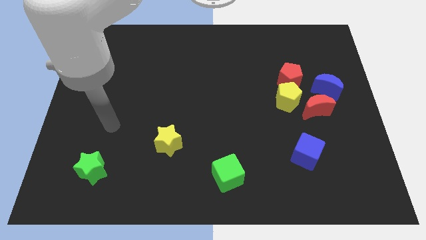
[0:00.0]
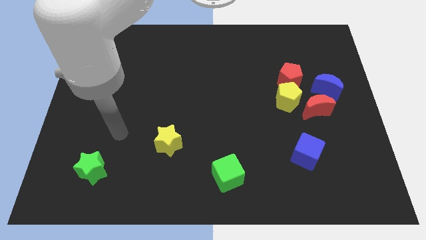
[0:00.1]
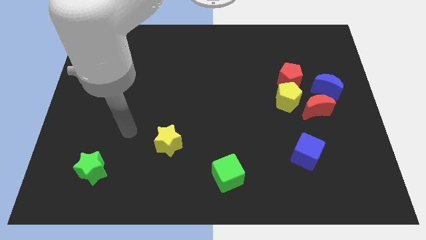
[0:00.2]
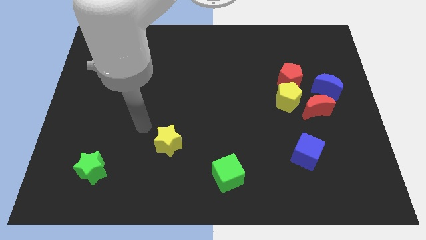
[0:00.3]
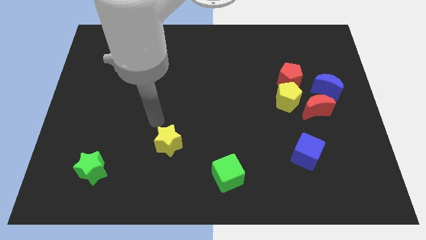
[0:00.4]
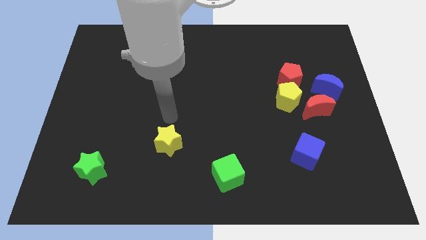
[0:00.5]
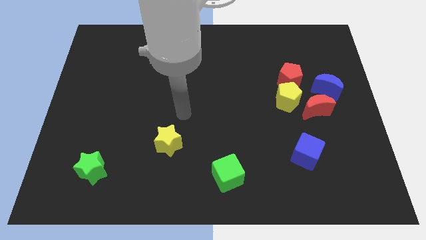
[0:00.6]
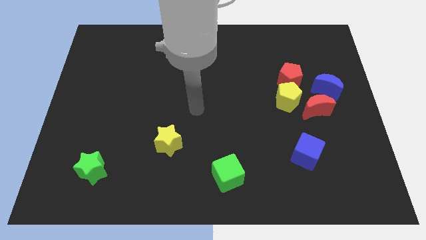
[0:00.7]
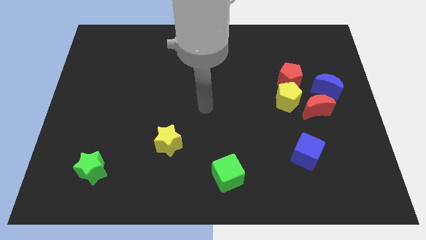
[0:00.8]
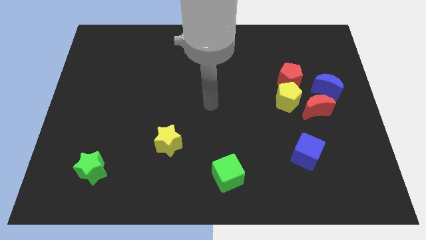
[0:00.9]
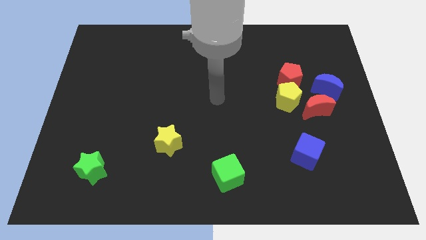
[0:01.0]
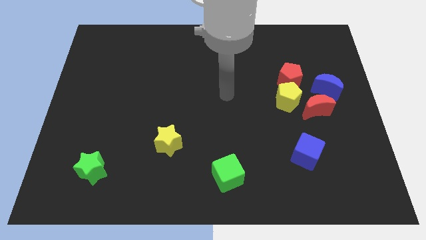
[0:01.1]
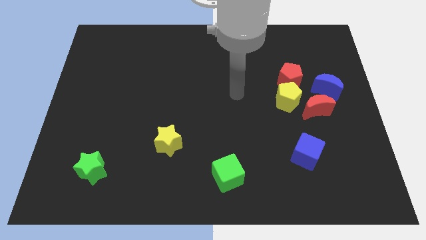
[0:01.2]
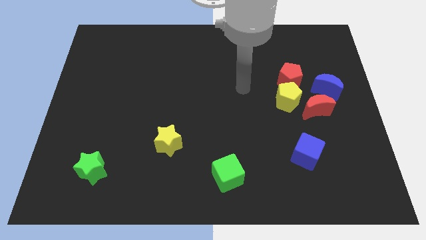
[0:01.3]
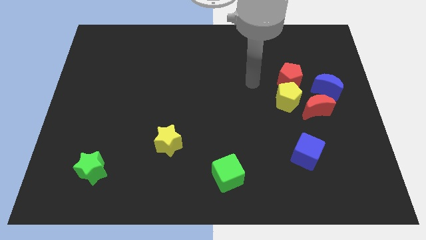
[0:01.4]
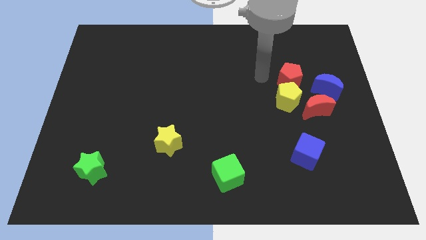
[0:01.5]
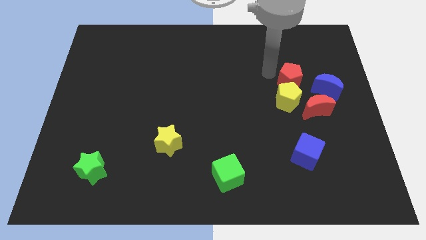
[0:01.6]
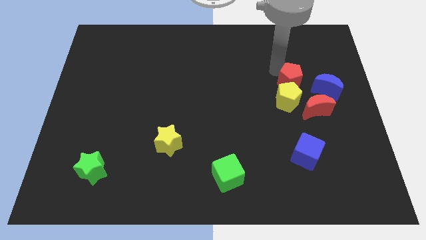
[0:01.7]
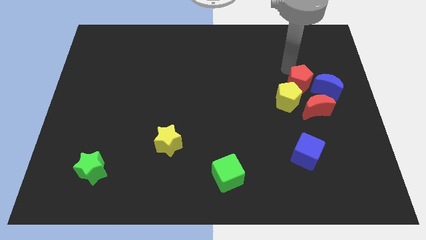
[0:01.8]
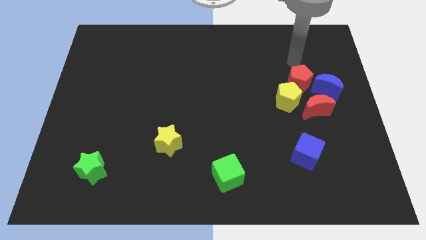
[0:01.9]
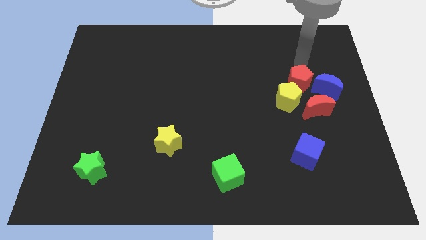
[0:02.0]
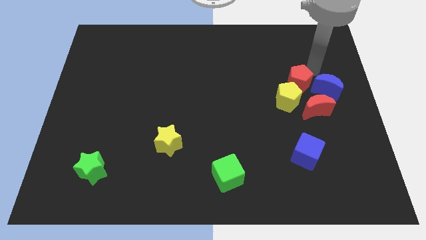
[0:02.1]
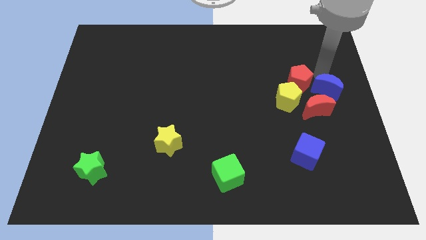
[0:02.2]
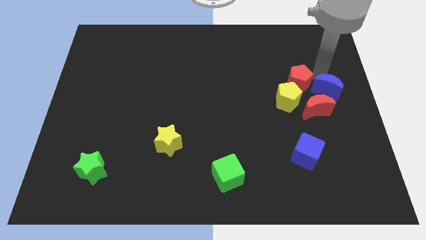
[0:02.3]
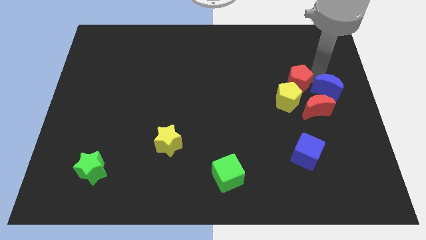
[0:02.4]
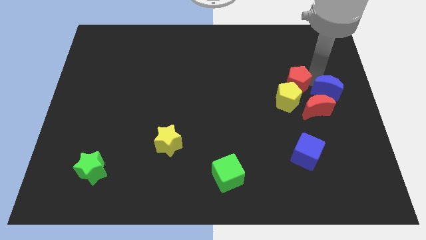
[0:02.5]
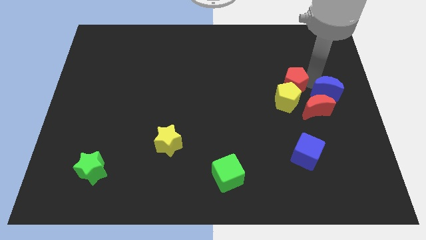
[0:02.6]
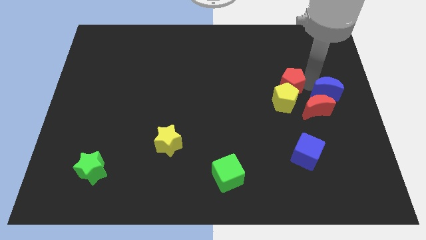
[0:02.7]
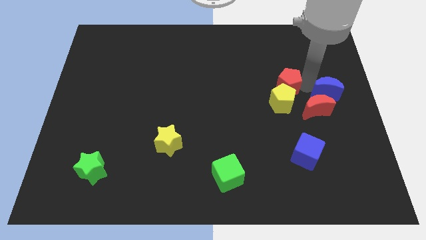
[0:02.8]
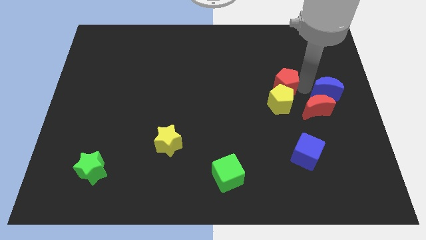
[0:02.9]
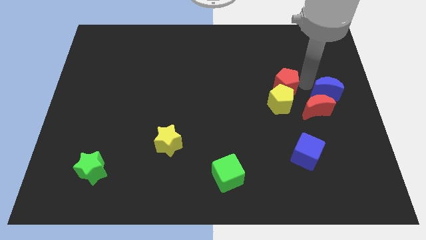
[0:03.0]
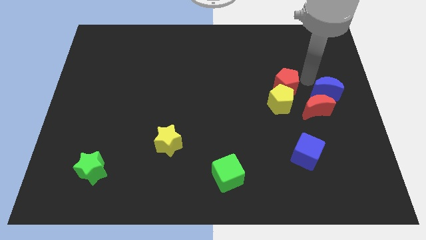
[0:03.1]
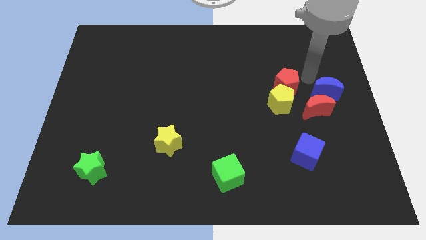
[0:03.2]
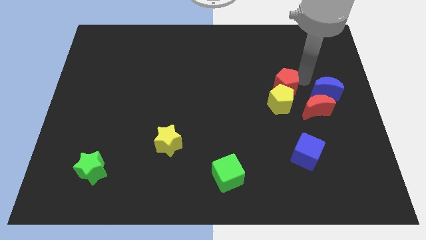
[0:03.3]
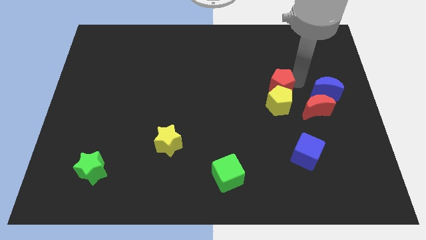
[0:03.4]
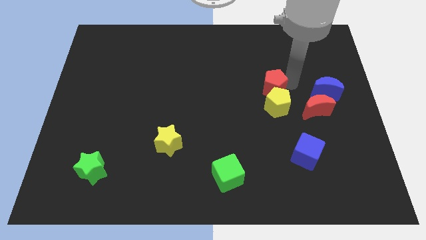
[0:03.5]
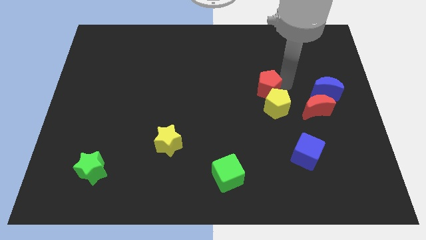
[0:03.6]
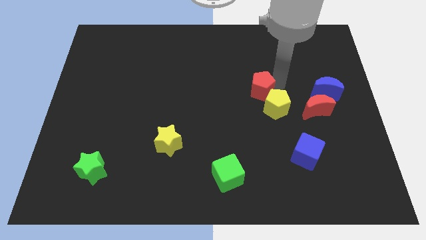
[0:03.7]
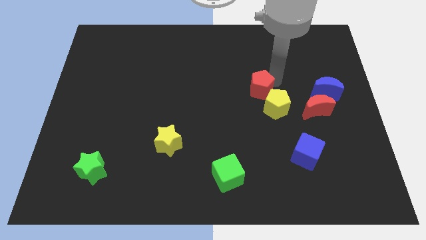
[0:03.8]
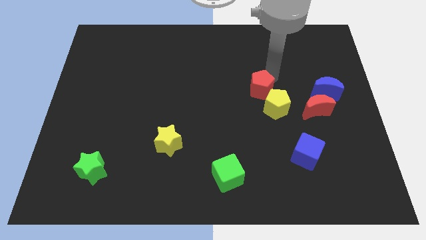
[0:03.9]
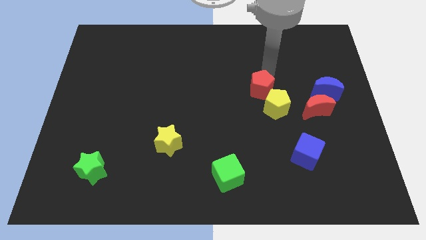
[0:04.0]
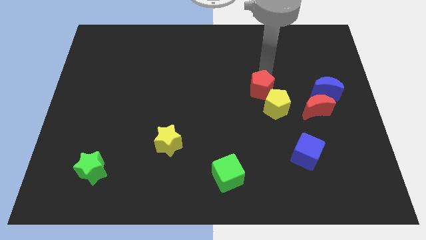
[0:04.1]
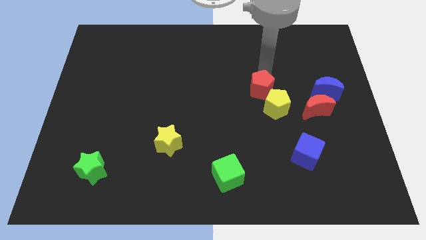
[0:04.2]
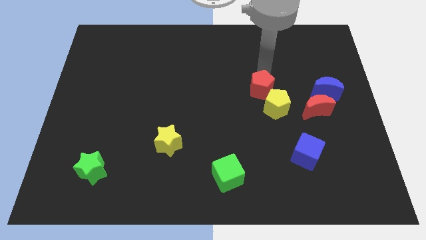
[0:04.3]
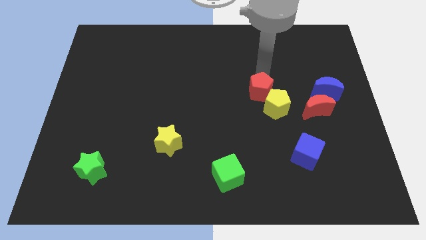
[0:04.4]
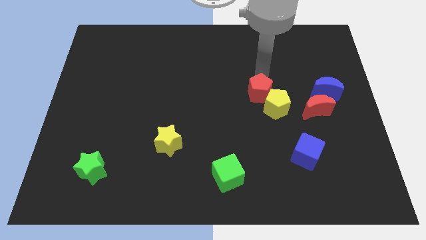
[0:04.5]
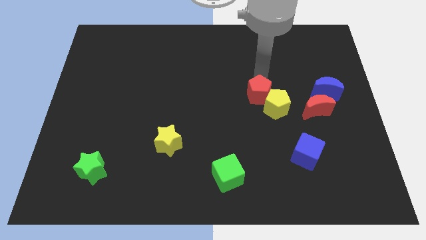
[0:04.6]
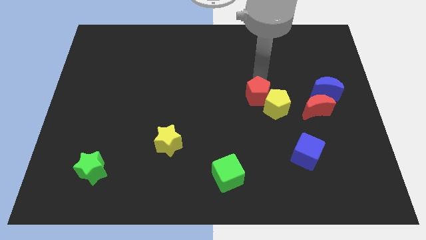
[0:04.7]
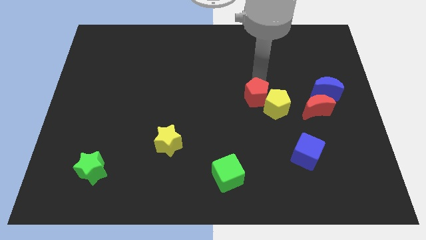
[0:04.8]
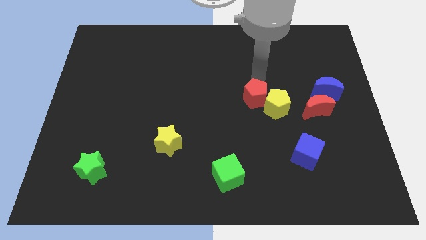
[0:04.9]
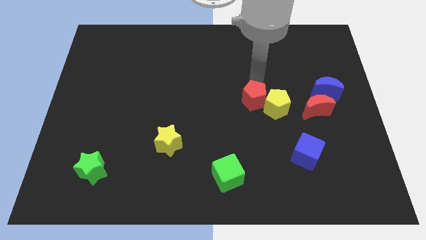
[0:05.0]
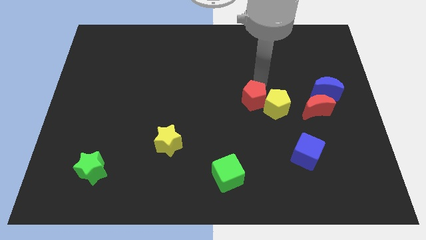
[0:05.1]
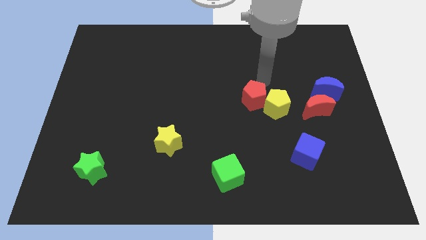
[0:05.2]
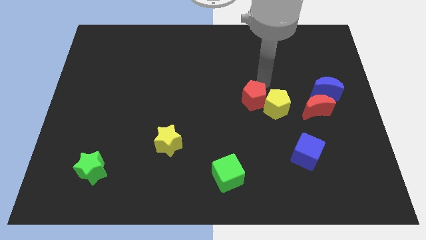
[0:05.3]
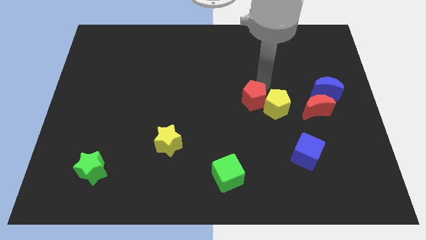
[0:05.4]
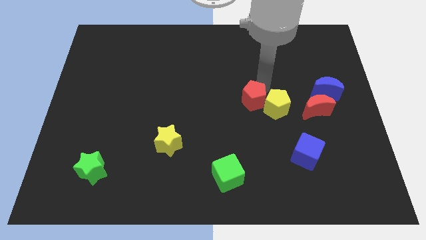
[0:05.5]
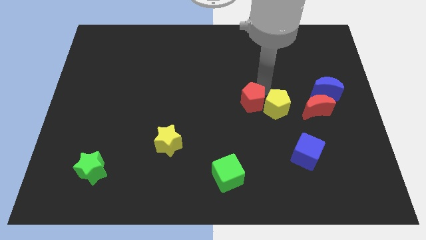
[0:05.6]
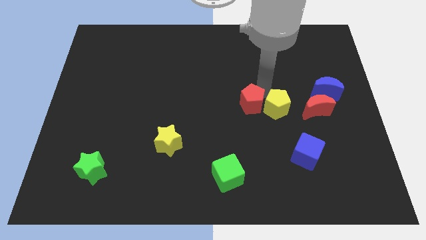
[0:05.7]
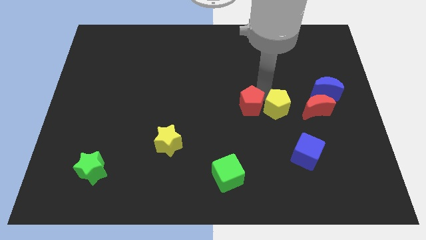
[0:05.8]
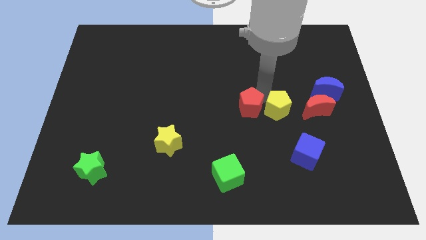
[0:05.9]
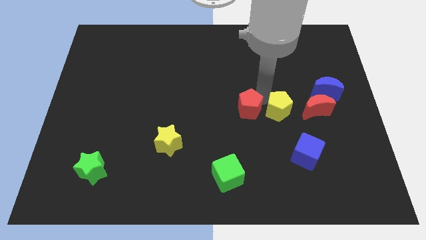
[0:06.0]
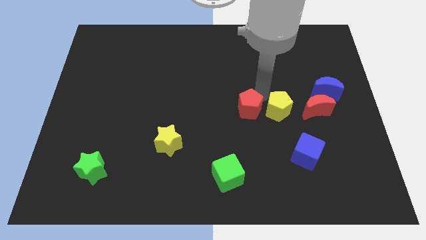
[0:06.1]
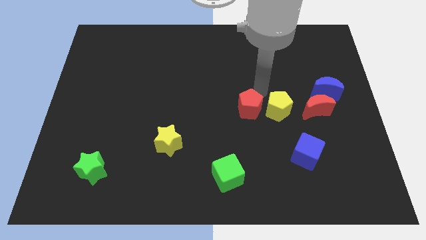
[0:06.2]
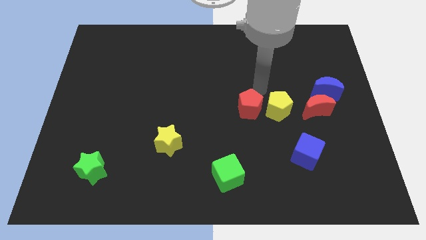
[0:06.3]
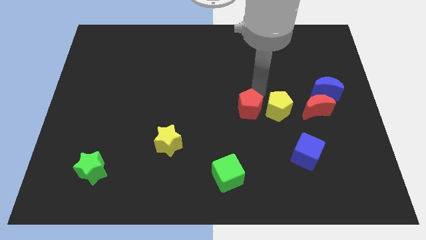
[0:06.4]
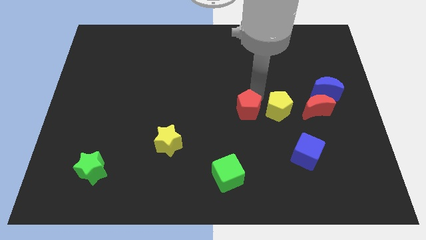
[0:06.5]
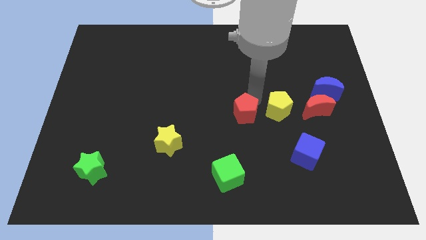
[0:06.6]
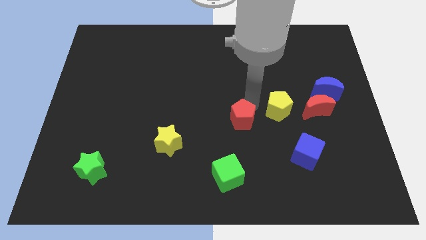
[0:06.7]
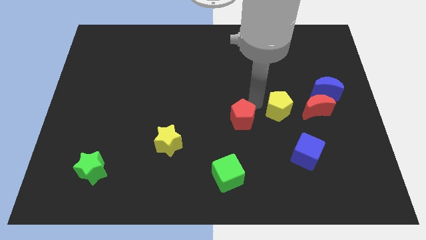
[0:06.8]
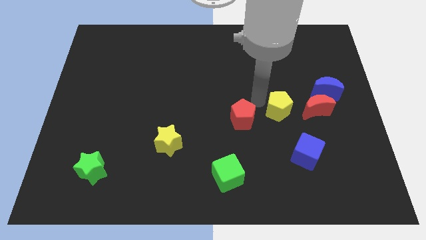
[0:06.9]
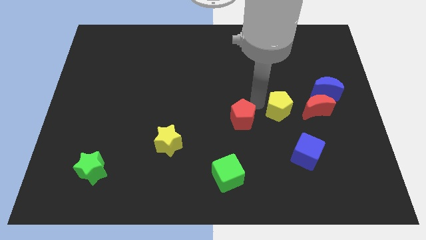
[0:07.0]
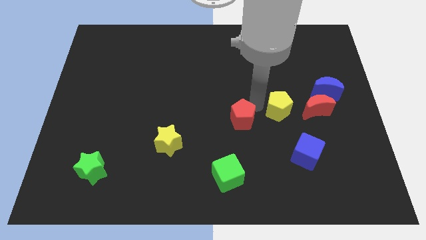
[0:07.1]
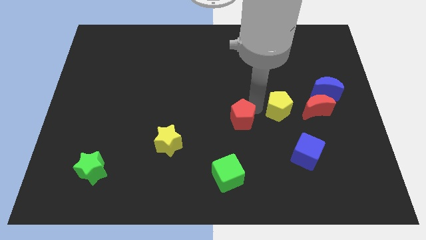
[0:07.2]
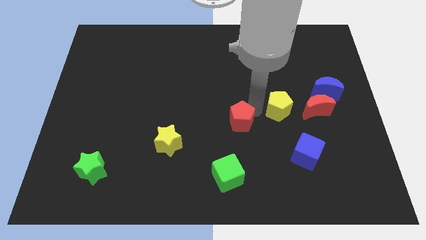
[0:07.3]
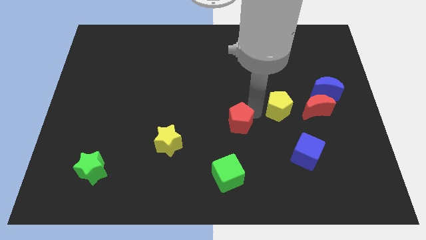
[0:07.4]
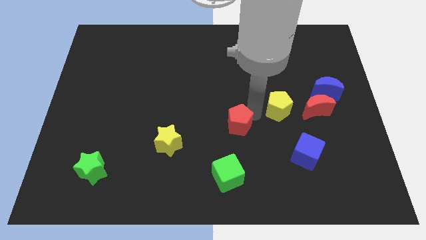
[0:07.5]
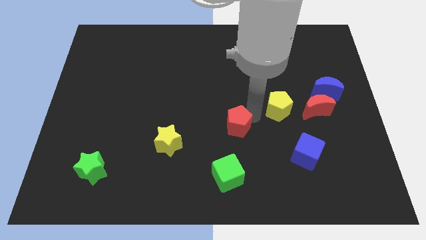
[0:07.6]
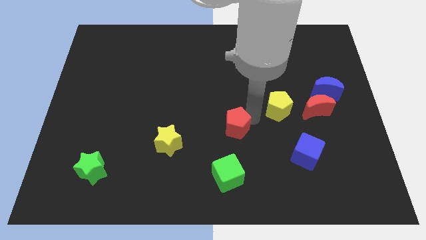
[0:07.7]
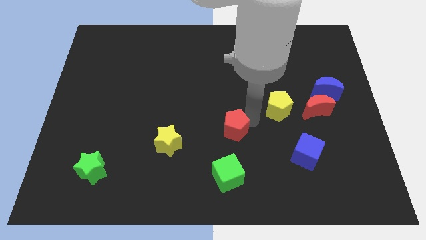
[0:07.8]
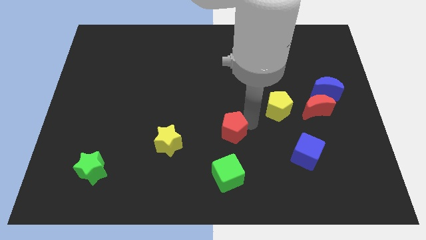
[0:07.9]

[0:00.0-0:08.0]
move the red pentagon right of the yellow star
